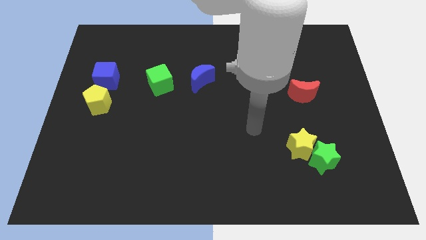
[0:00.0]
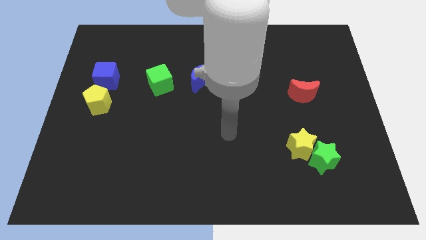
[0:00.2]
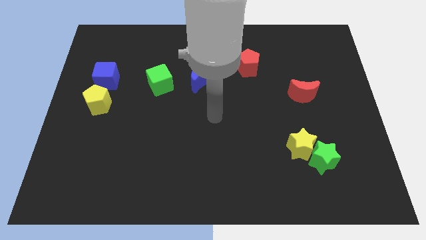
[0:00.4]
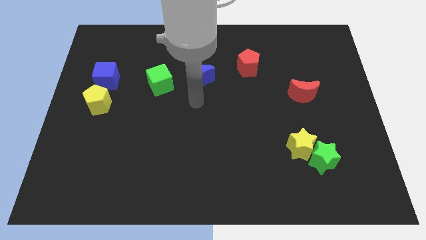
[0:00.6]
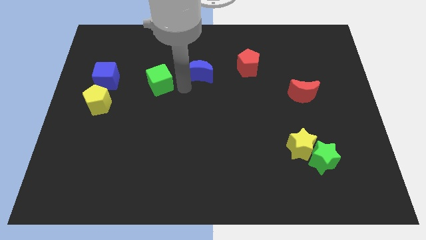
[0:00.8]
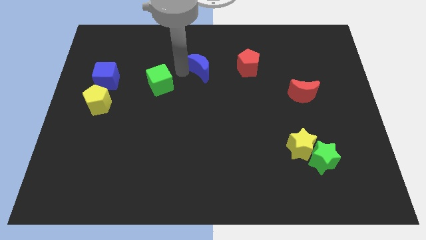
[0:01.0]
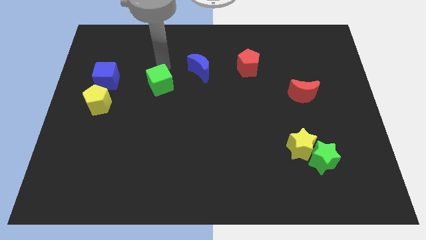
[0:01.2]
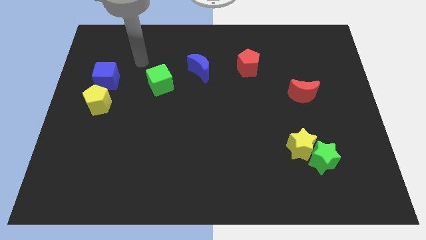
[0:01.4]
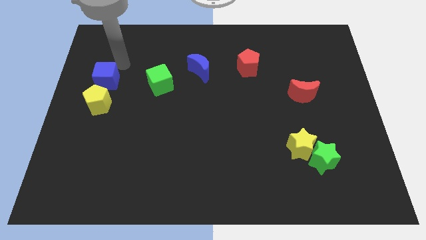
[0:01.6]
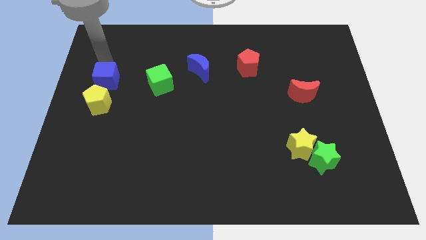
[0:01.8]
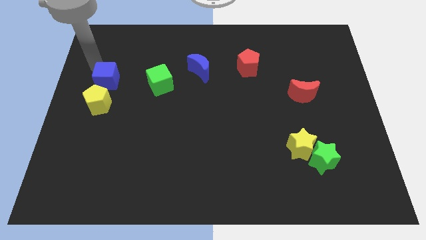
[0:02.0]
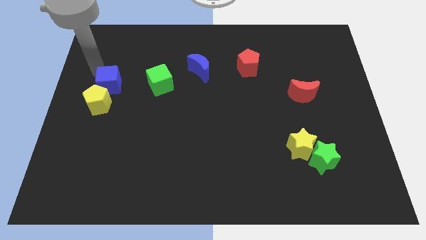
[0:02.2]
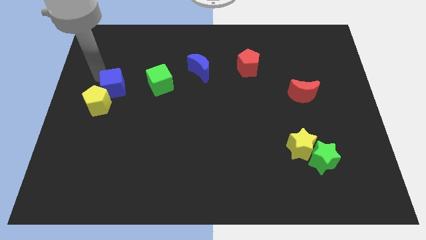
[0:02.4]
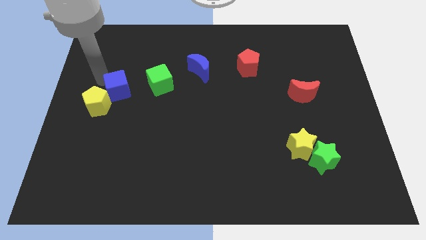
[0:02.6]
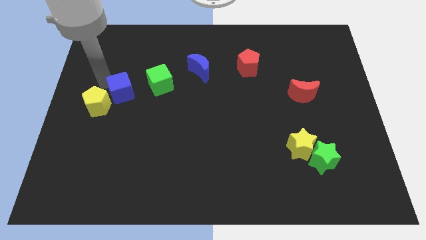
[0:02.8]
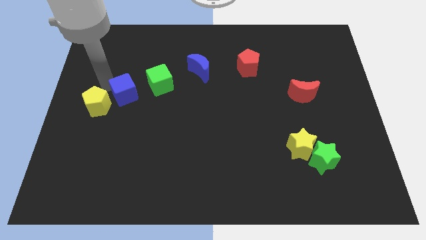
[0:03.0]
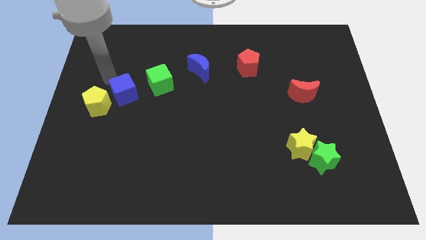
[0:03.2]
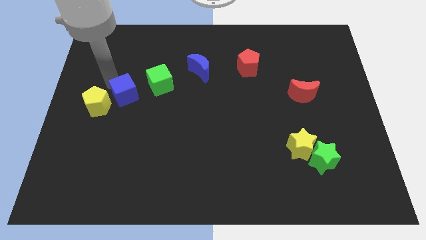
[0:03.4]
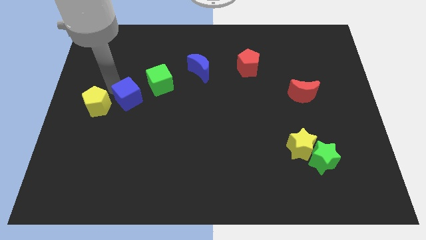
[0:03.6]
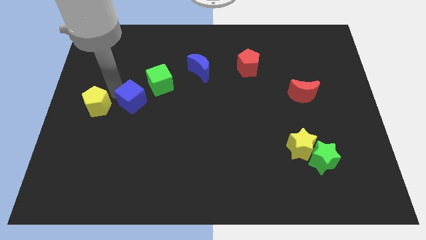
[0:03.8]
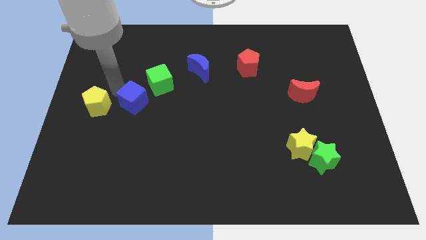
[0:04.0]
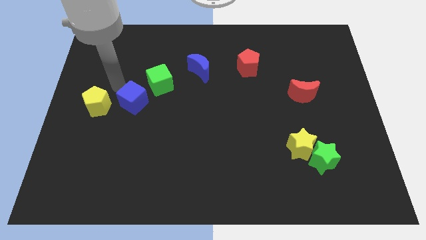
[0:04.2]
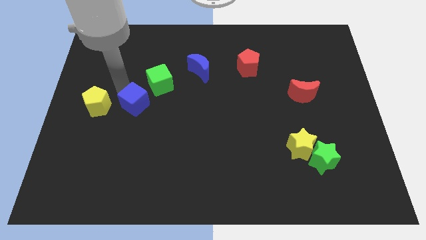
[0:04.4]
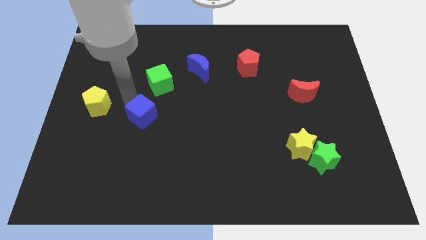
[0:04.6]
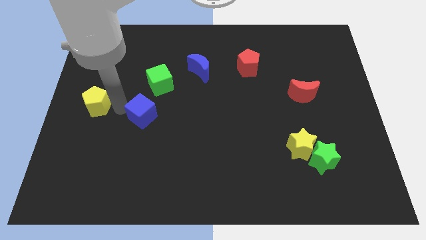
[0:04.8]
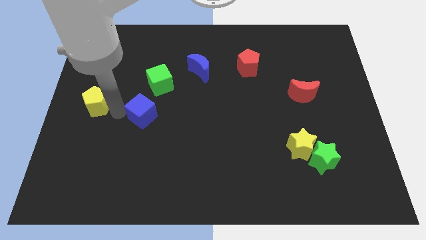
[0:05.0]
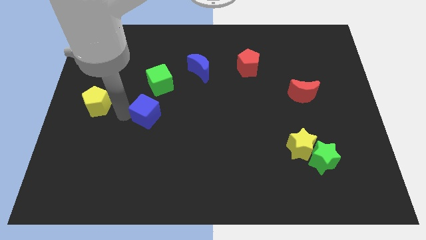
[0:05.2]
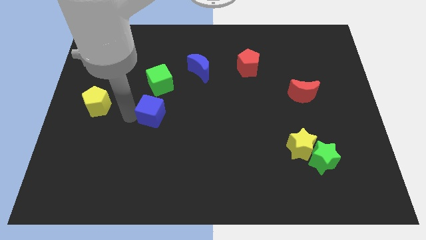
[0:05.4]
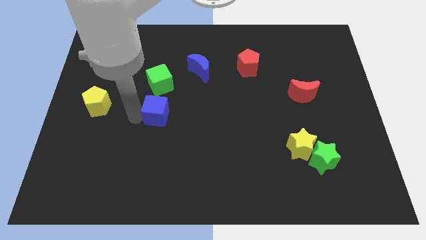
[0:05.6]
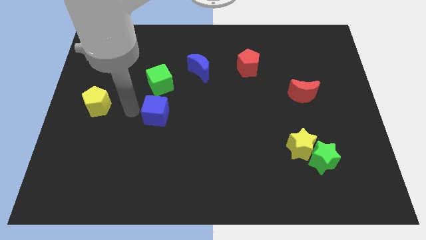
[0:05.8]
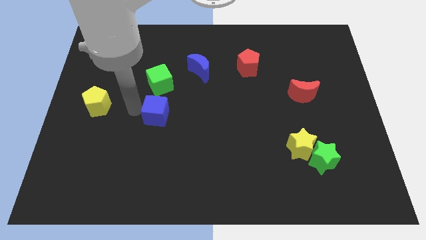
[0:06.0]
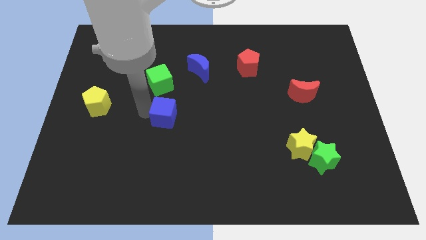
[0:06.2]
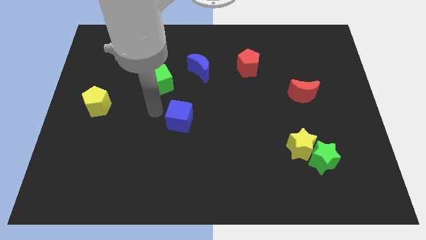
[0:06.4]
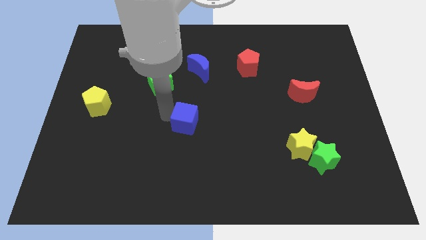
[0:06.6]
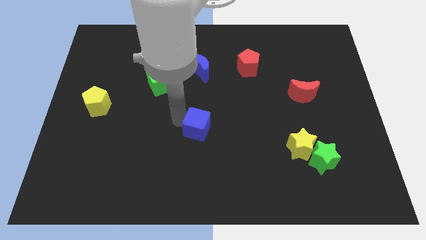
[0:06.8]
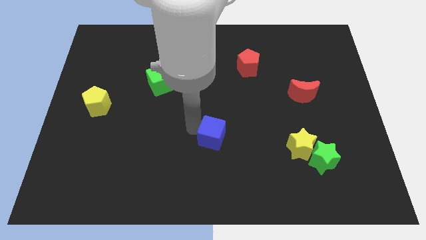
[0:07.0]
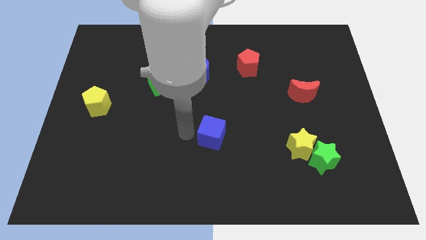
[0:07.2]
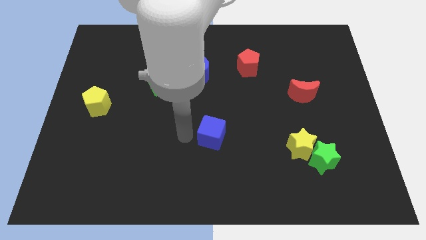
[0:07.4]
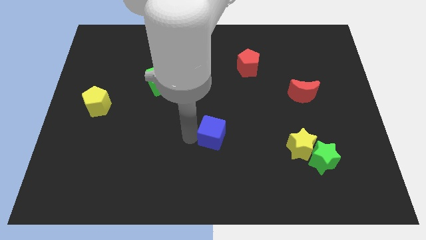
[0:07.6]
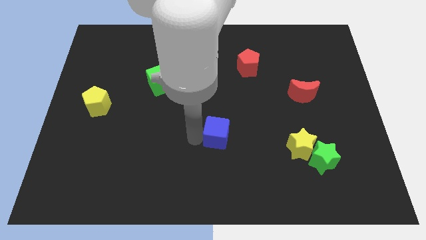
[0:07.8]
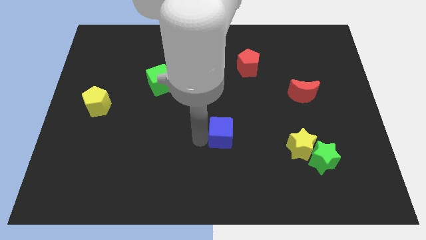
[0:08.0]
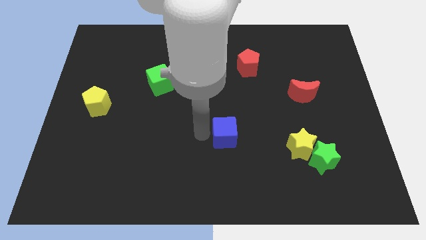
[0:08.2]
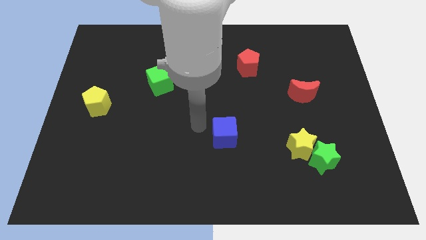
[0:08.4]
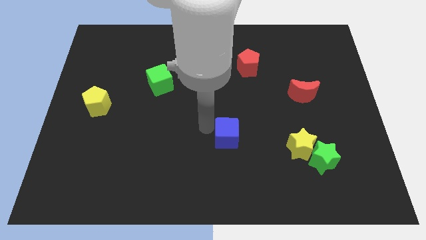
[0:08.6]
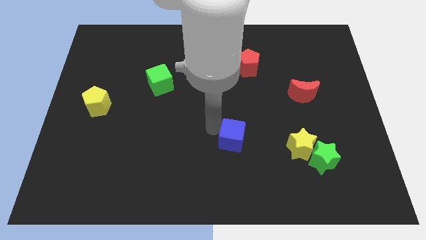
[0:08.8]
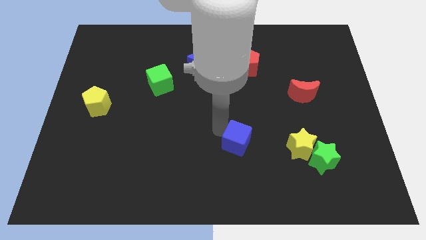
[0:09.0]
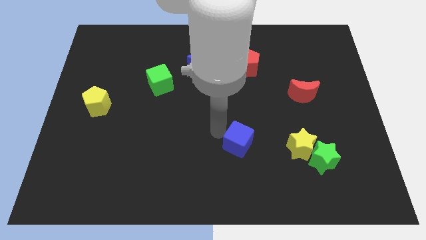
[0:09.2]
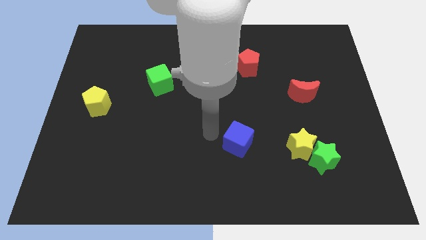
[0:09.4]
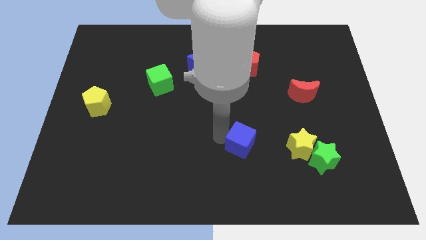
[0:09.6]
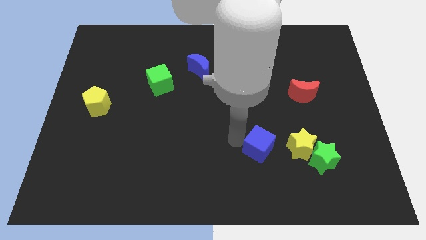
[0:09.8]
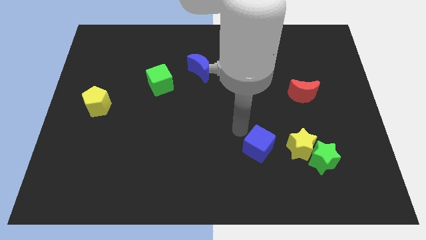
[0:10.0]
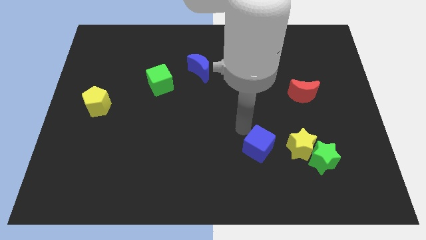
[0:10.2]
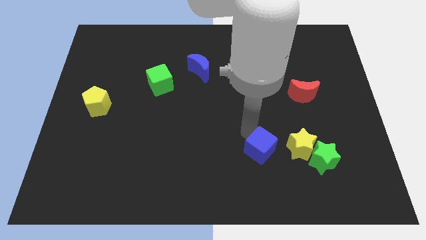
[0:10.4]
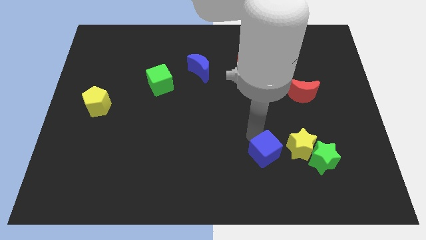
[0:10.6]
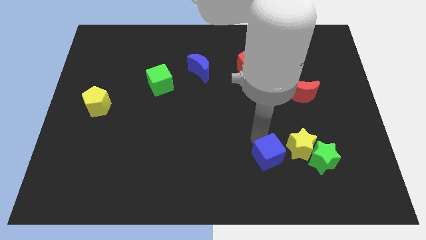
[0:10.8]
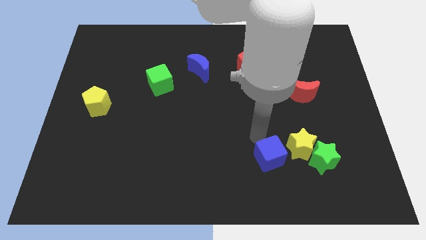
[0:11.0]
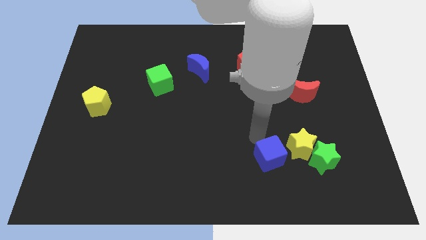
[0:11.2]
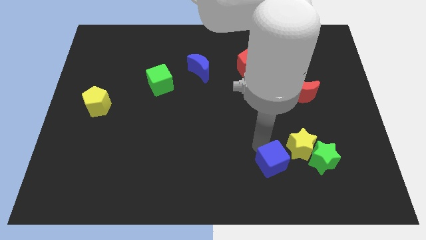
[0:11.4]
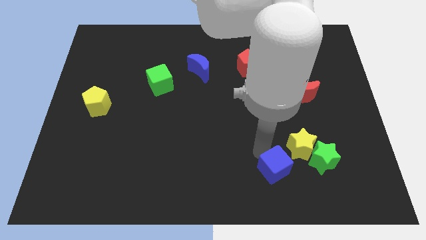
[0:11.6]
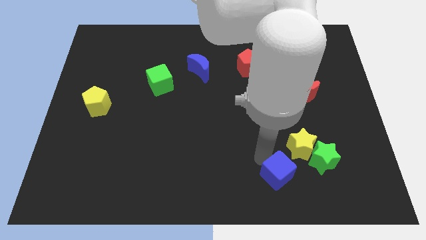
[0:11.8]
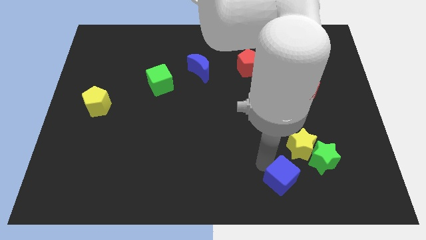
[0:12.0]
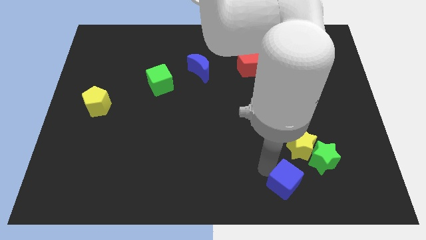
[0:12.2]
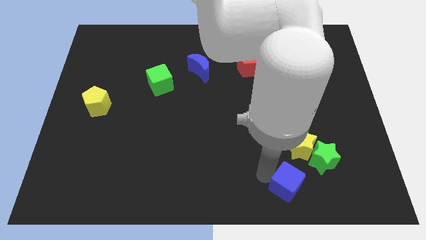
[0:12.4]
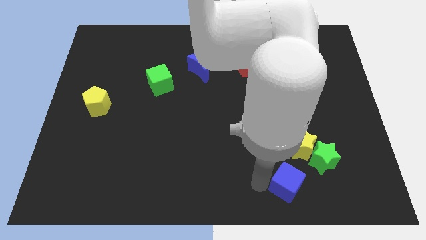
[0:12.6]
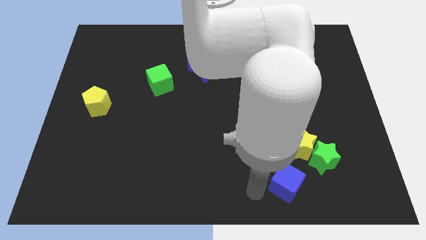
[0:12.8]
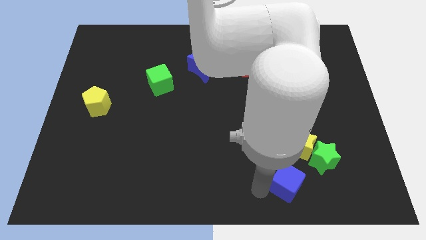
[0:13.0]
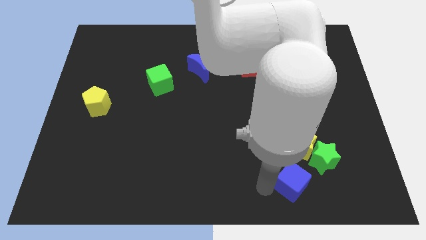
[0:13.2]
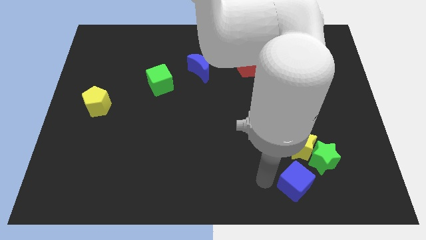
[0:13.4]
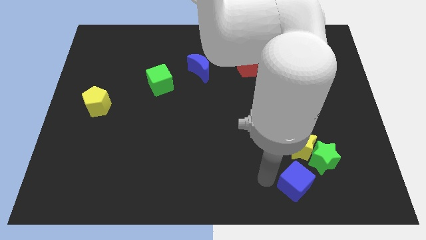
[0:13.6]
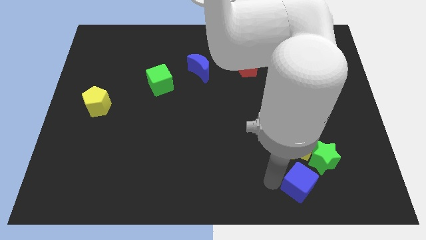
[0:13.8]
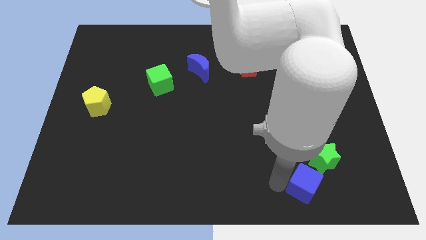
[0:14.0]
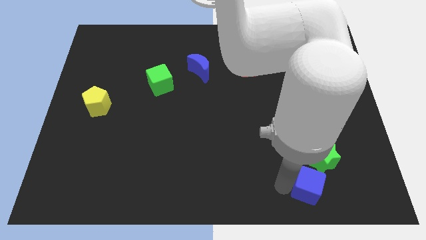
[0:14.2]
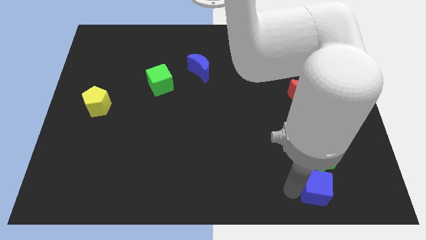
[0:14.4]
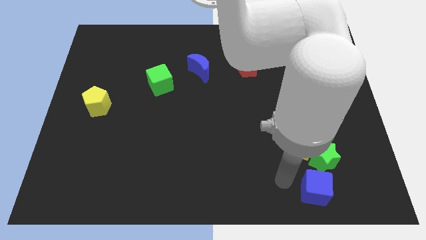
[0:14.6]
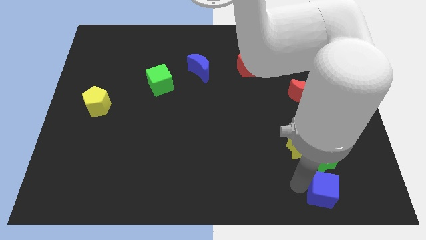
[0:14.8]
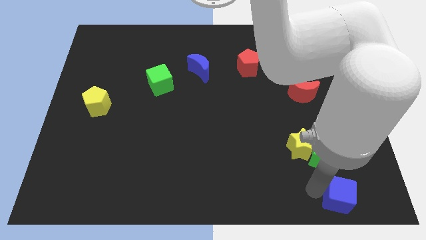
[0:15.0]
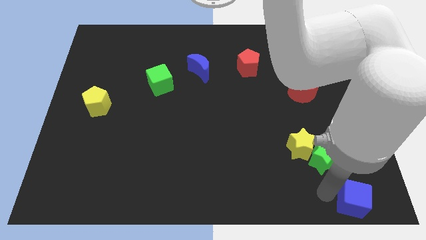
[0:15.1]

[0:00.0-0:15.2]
push the blue cube to the bottom right
